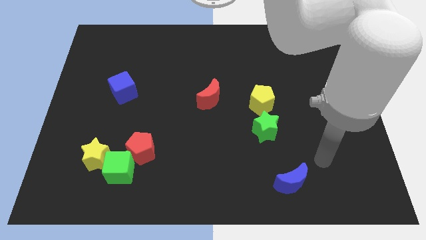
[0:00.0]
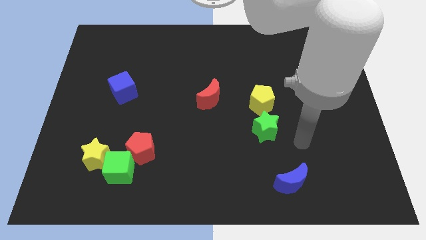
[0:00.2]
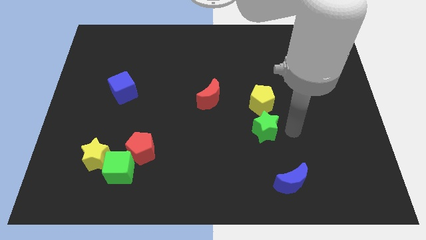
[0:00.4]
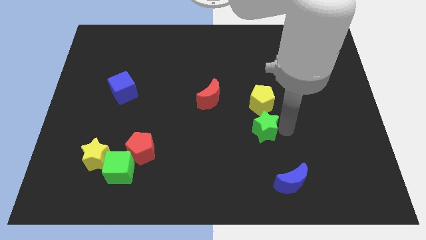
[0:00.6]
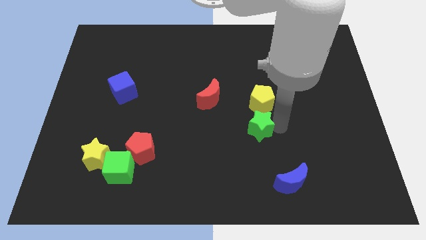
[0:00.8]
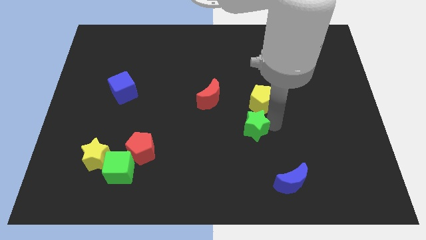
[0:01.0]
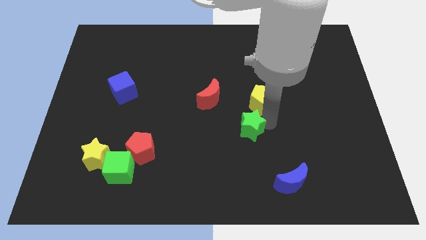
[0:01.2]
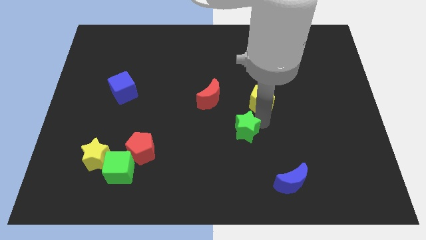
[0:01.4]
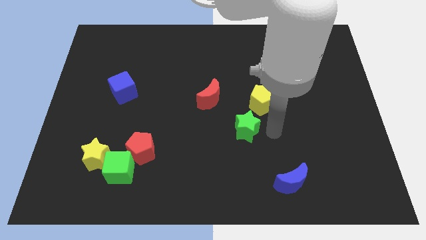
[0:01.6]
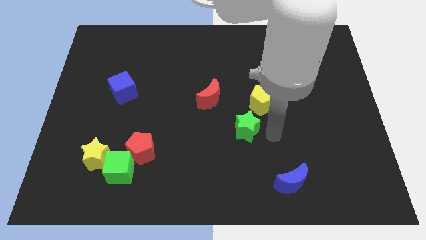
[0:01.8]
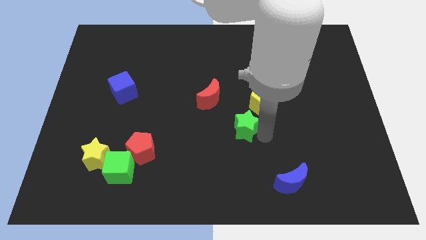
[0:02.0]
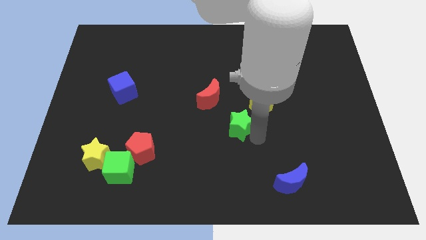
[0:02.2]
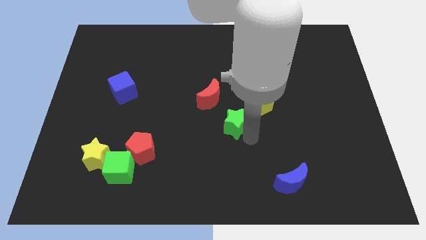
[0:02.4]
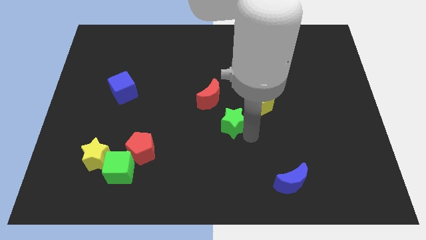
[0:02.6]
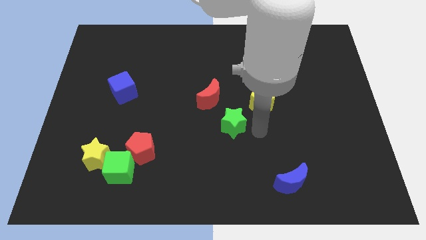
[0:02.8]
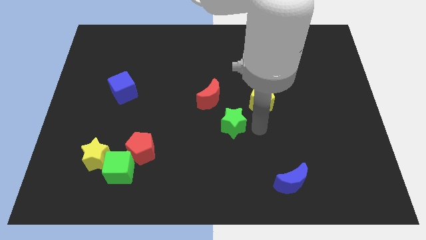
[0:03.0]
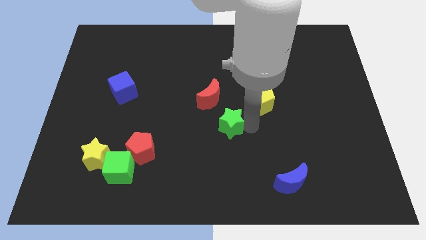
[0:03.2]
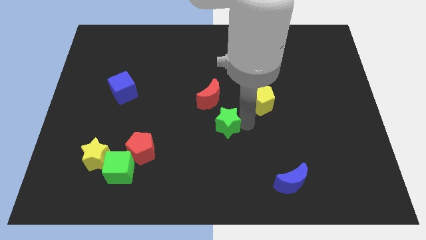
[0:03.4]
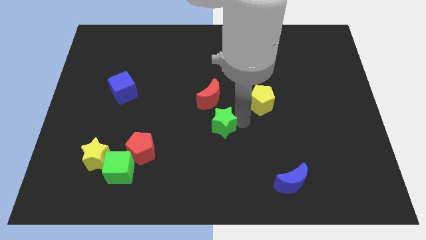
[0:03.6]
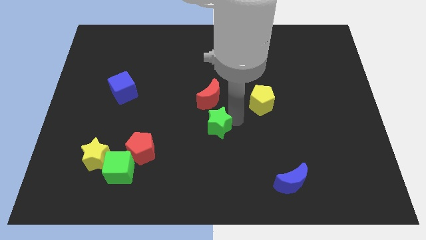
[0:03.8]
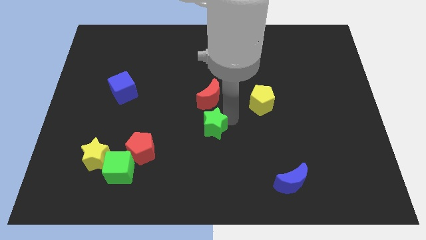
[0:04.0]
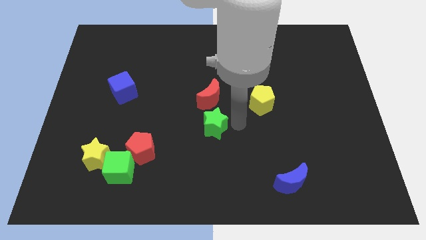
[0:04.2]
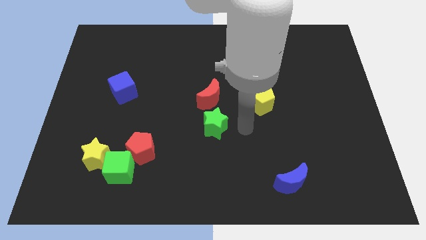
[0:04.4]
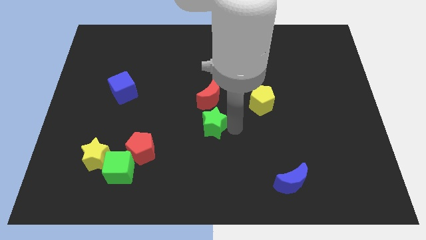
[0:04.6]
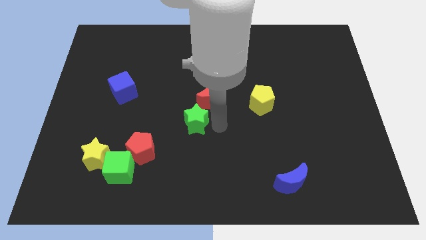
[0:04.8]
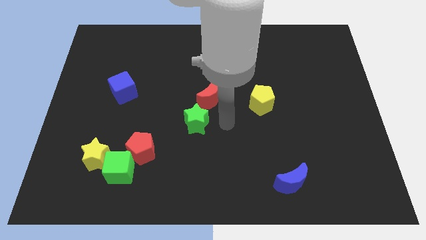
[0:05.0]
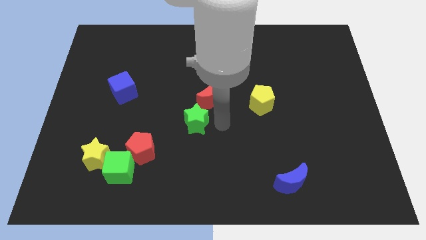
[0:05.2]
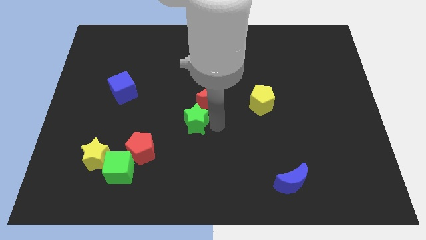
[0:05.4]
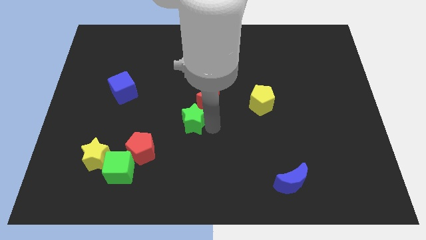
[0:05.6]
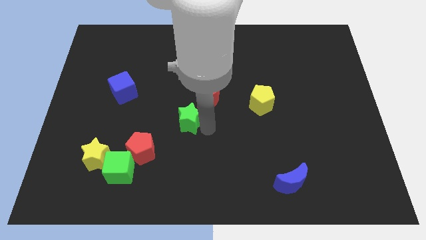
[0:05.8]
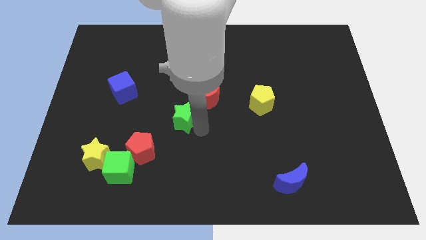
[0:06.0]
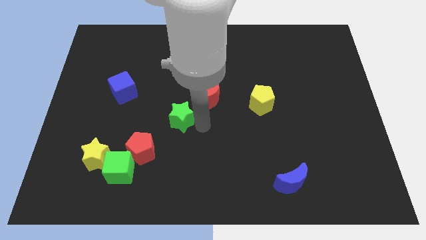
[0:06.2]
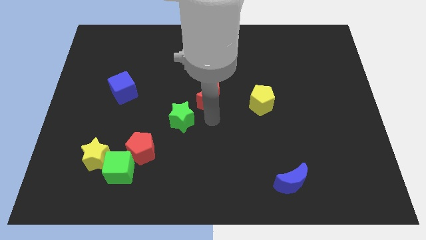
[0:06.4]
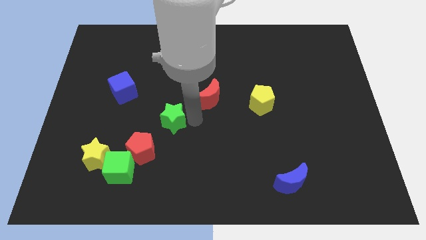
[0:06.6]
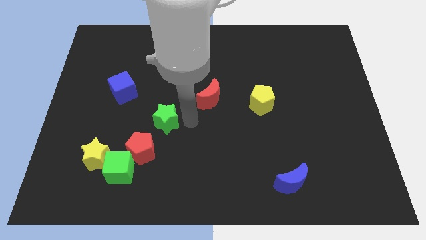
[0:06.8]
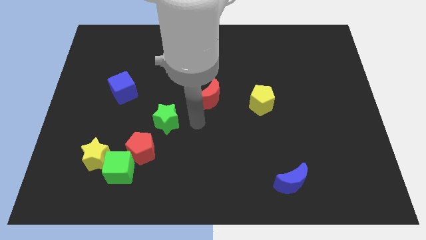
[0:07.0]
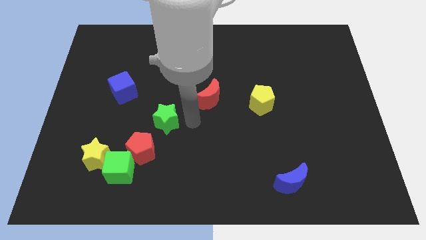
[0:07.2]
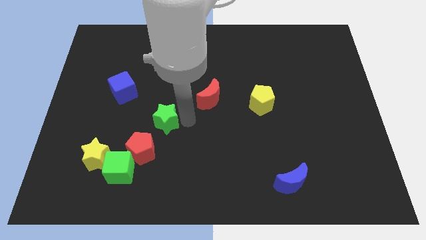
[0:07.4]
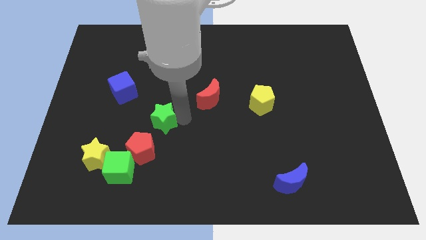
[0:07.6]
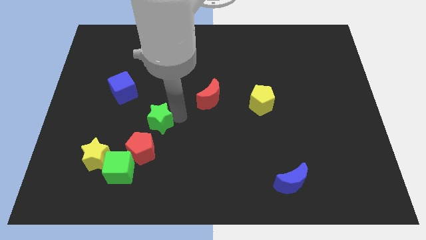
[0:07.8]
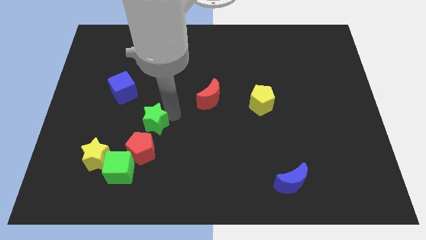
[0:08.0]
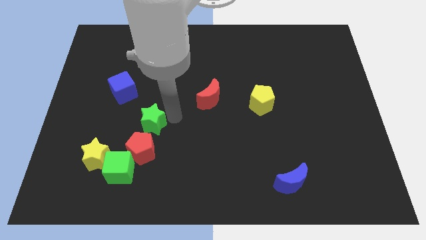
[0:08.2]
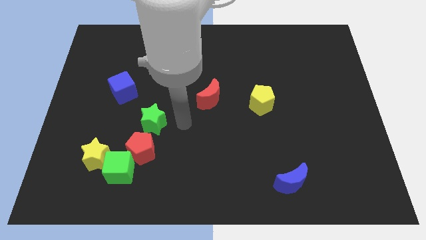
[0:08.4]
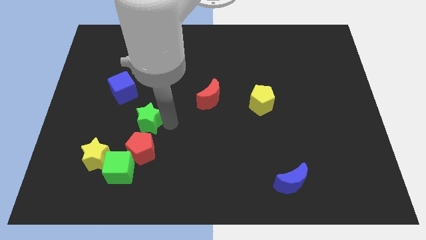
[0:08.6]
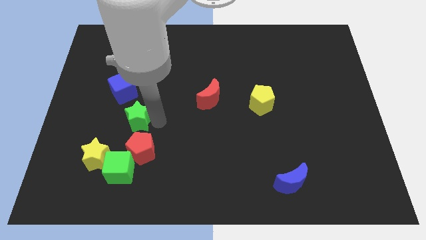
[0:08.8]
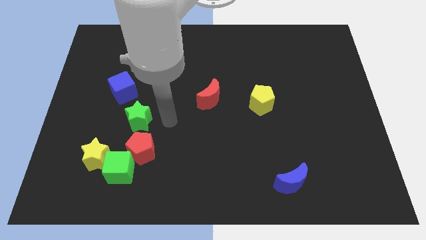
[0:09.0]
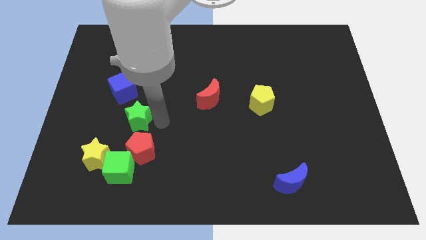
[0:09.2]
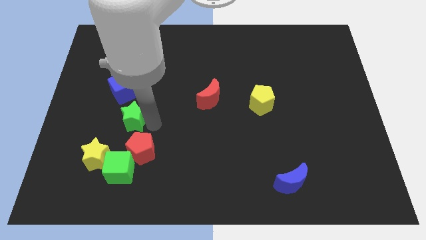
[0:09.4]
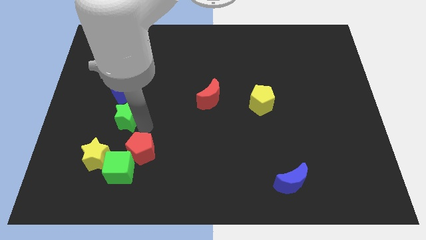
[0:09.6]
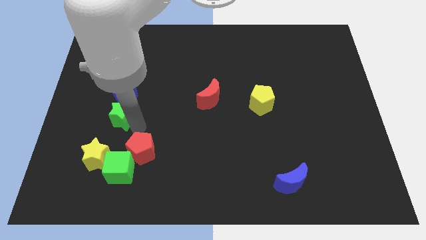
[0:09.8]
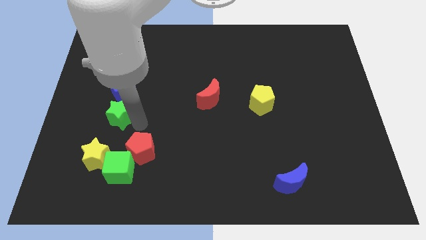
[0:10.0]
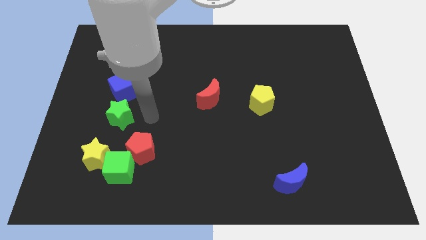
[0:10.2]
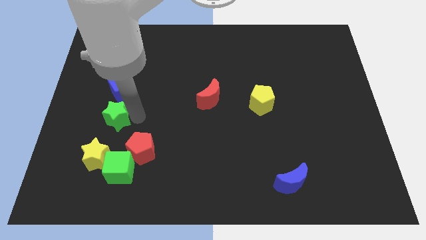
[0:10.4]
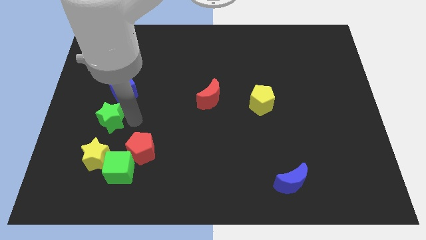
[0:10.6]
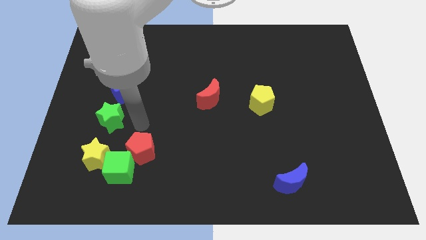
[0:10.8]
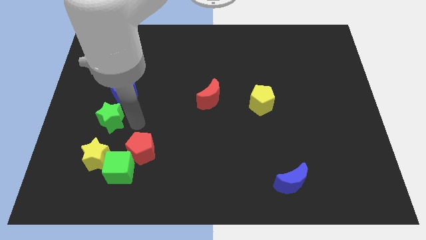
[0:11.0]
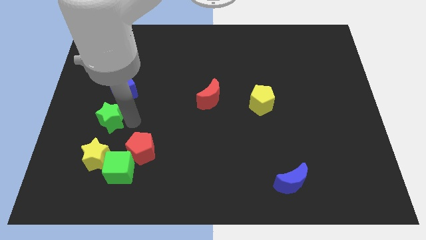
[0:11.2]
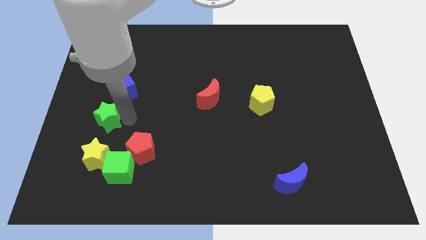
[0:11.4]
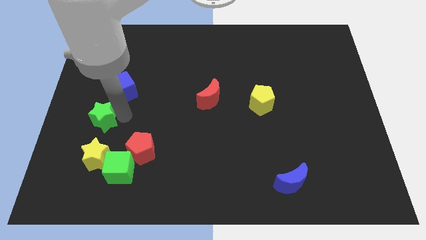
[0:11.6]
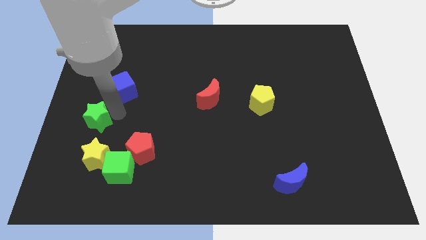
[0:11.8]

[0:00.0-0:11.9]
slide the green star to the center left

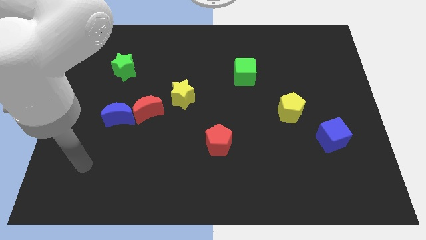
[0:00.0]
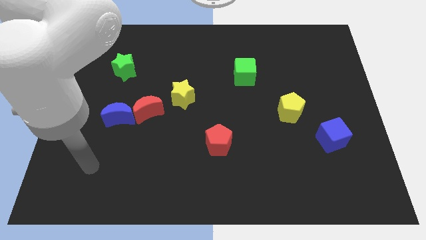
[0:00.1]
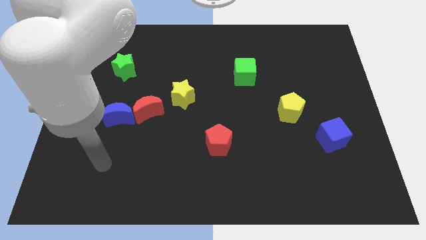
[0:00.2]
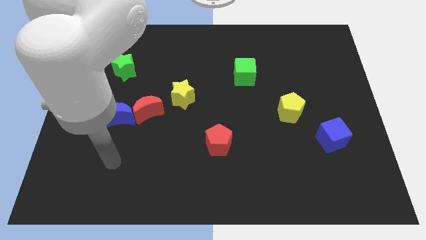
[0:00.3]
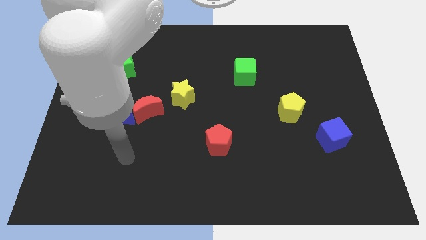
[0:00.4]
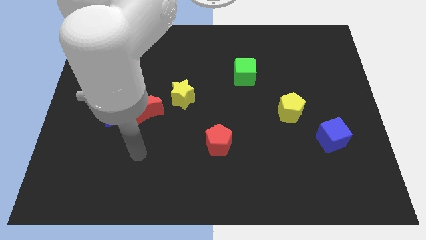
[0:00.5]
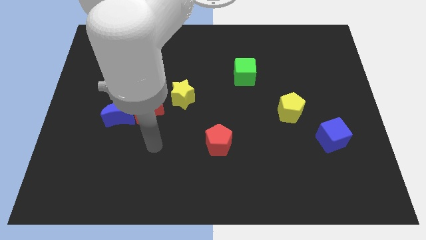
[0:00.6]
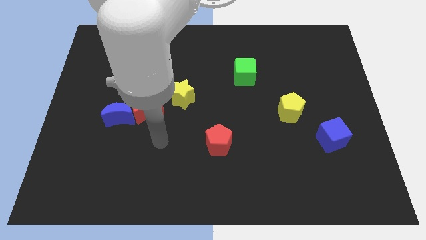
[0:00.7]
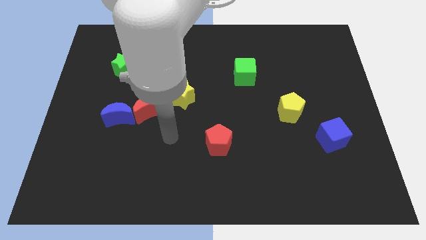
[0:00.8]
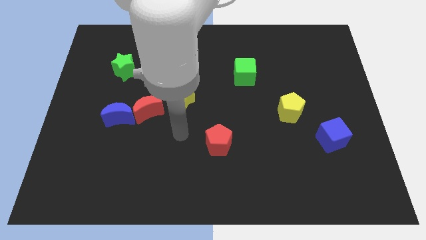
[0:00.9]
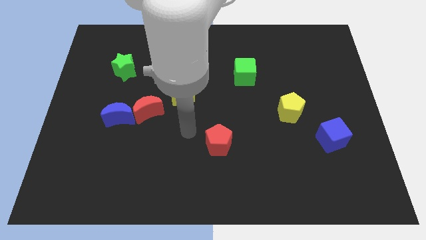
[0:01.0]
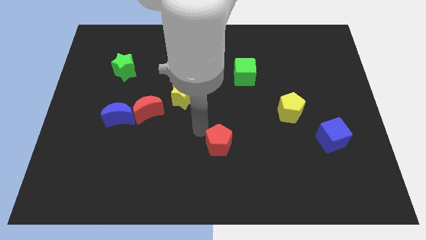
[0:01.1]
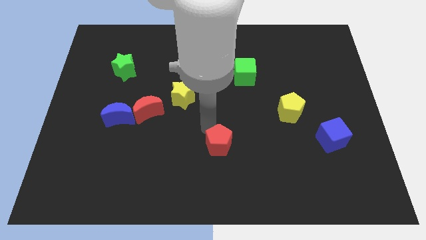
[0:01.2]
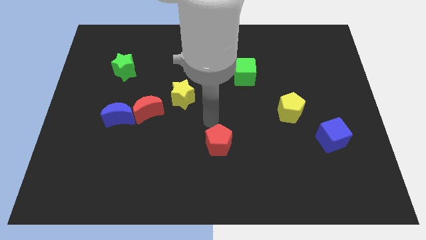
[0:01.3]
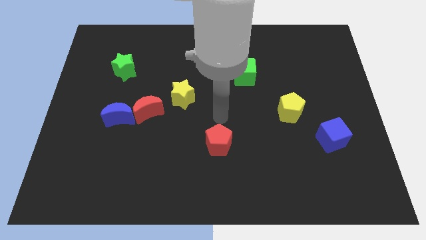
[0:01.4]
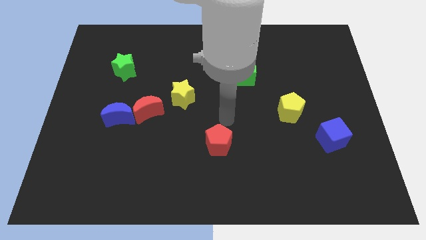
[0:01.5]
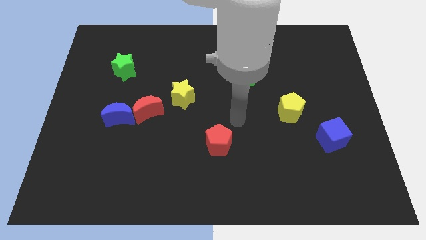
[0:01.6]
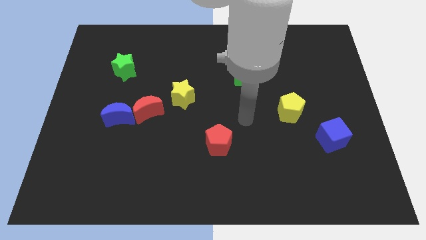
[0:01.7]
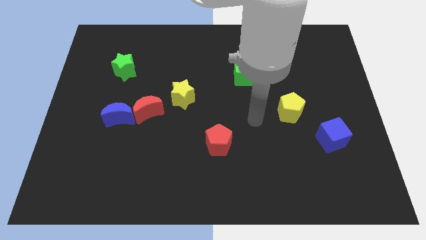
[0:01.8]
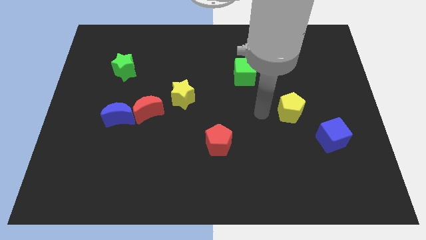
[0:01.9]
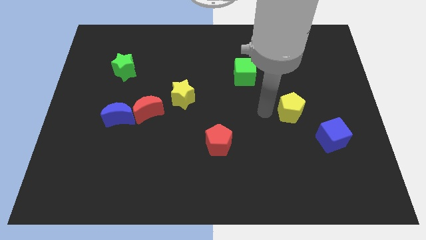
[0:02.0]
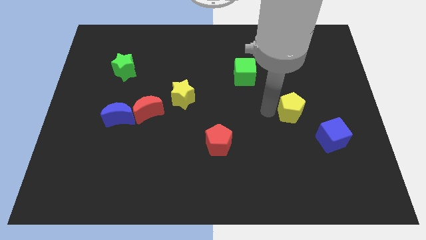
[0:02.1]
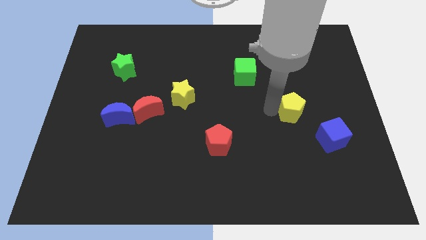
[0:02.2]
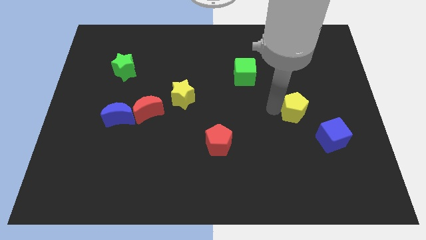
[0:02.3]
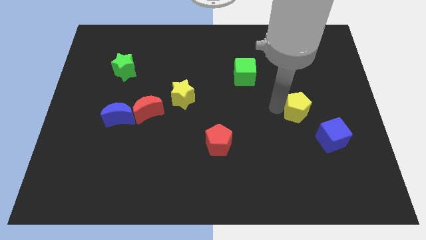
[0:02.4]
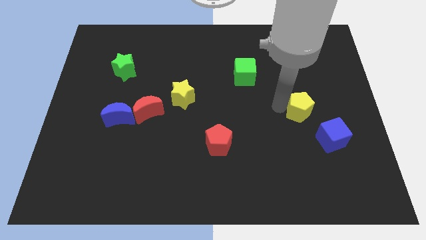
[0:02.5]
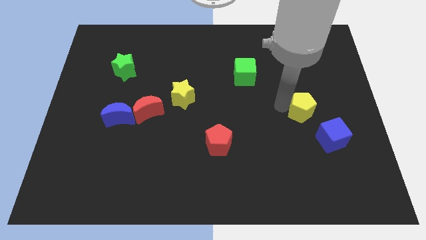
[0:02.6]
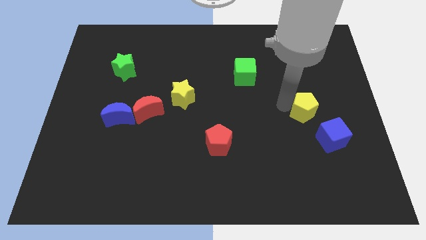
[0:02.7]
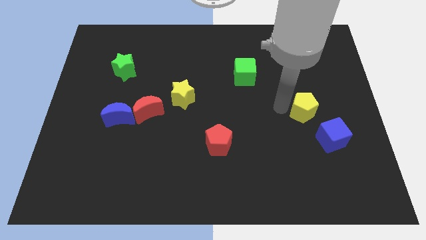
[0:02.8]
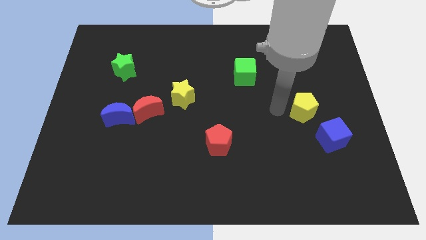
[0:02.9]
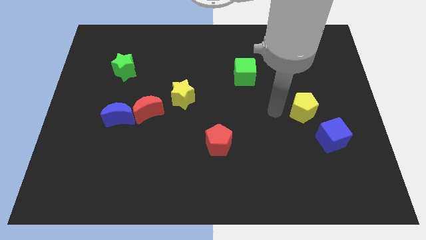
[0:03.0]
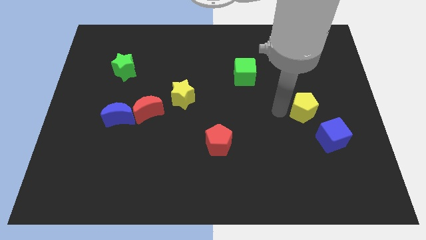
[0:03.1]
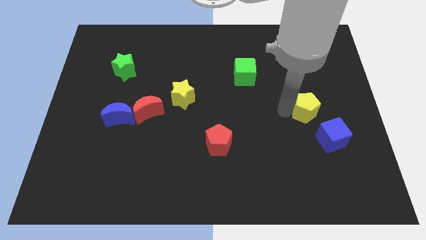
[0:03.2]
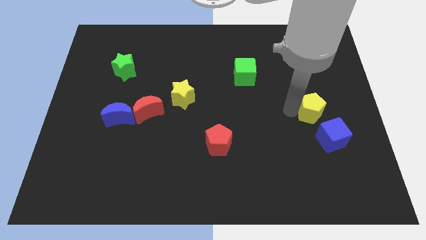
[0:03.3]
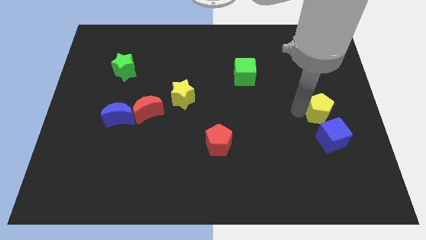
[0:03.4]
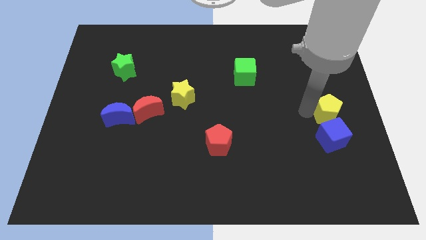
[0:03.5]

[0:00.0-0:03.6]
put the yellow pentagon to the center right
